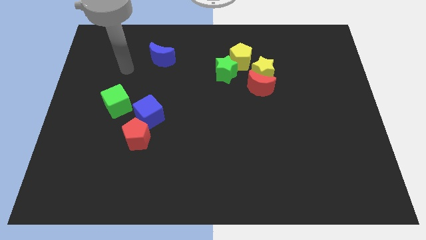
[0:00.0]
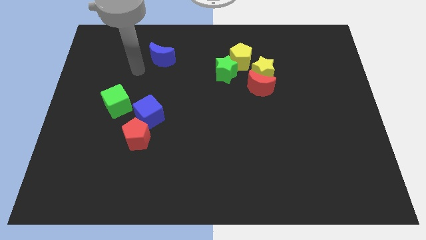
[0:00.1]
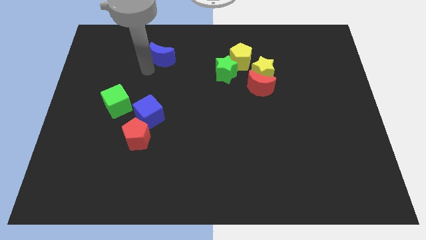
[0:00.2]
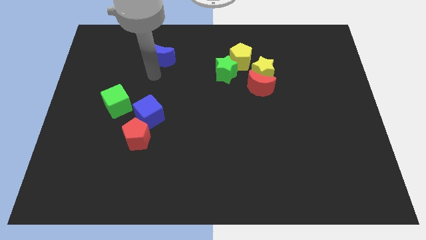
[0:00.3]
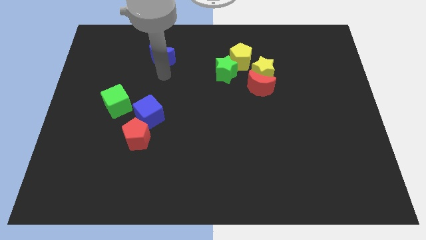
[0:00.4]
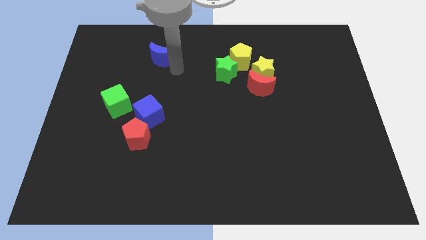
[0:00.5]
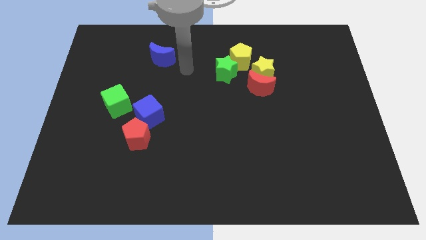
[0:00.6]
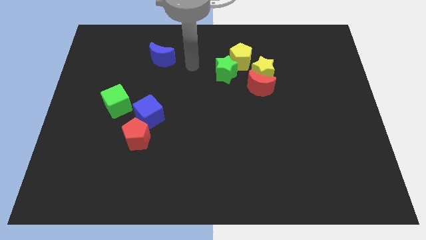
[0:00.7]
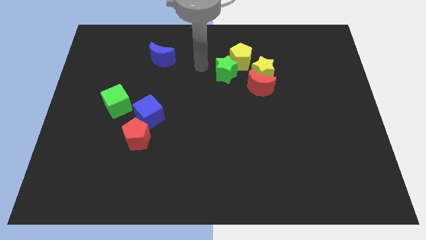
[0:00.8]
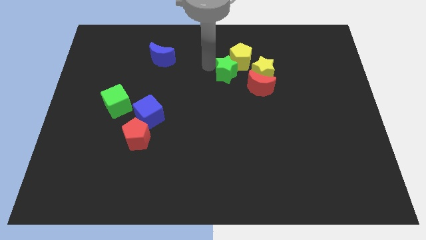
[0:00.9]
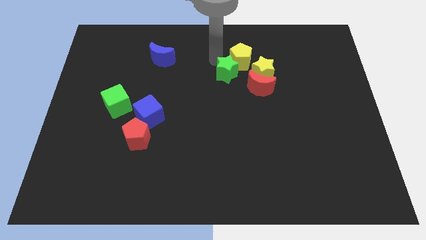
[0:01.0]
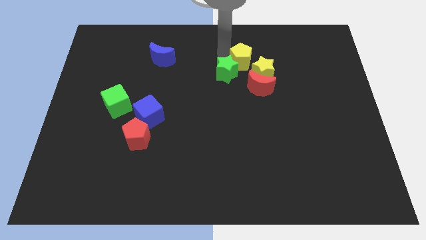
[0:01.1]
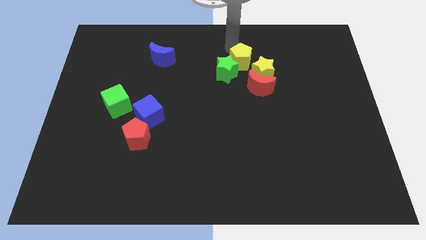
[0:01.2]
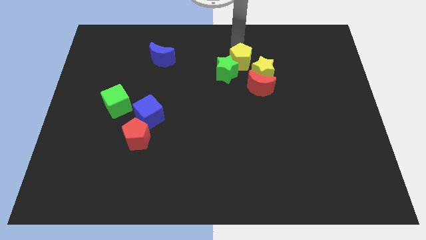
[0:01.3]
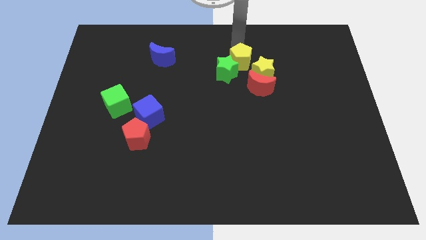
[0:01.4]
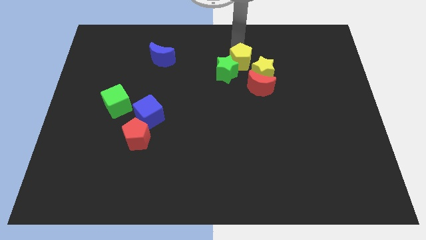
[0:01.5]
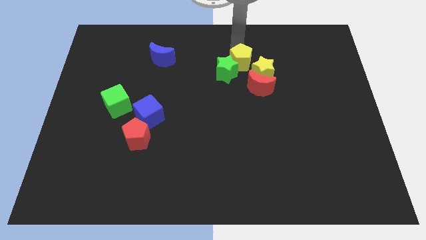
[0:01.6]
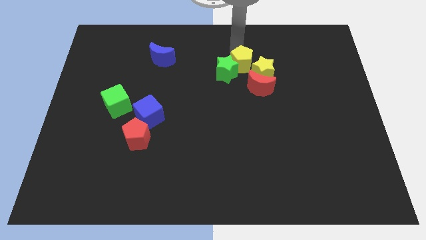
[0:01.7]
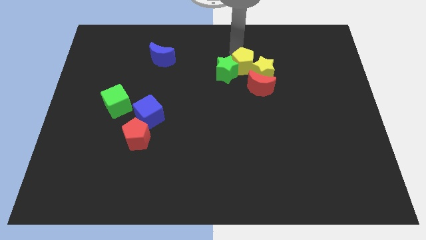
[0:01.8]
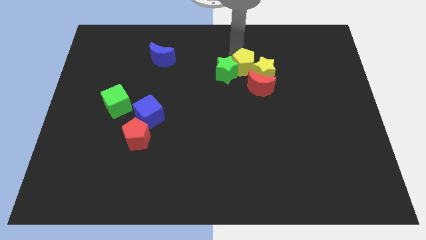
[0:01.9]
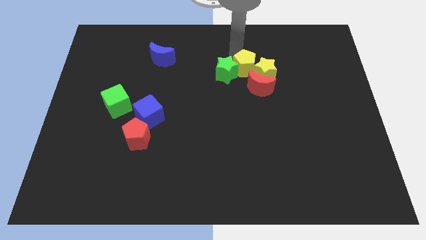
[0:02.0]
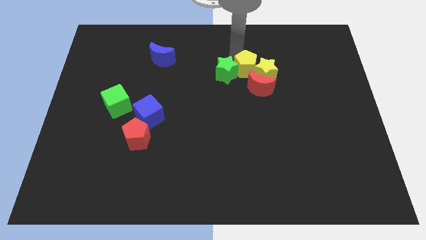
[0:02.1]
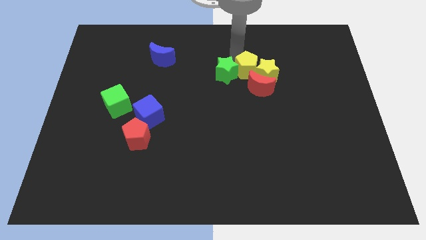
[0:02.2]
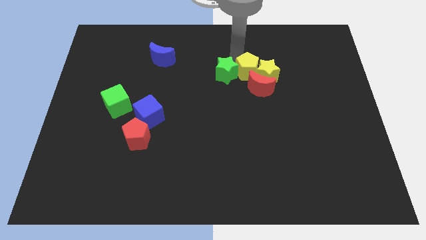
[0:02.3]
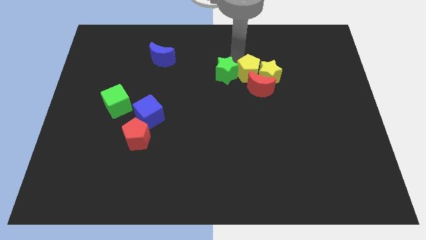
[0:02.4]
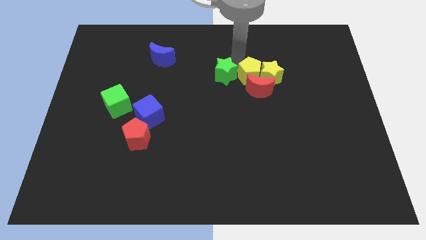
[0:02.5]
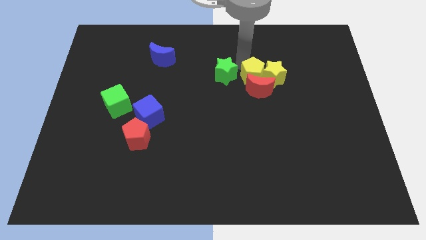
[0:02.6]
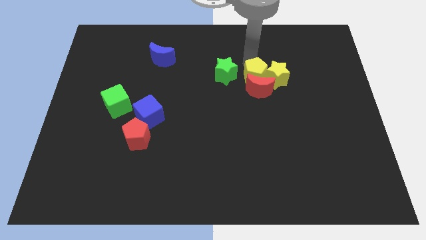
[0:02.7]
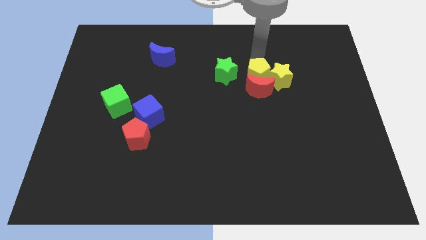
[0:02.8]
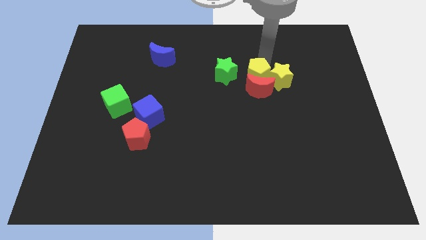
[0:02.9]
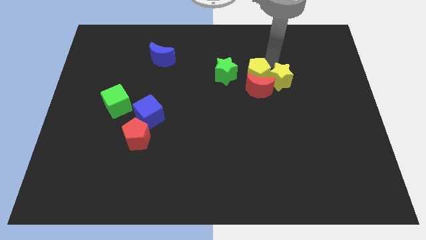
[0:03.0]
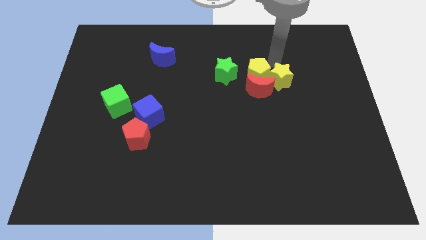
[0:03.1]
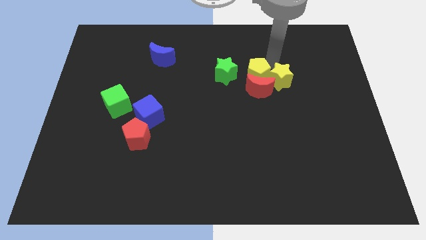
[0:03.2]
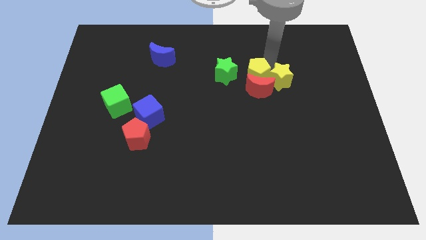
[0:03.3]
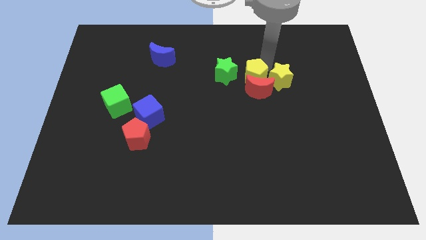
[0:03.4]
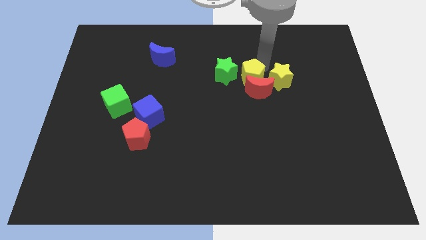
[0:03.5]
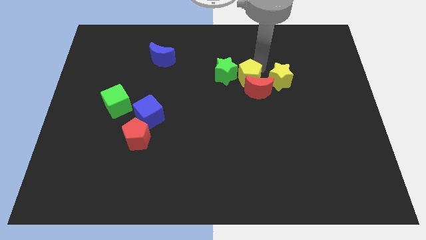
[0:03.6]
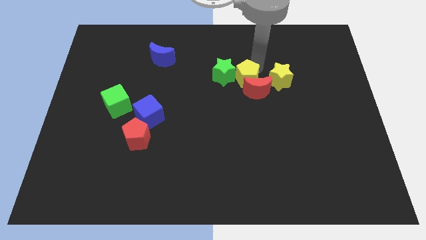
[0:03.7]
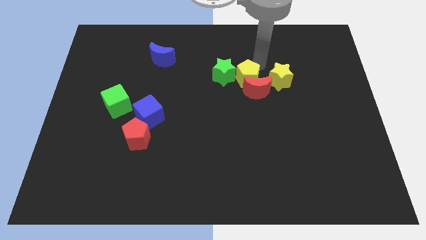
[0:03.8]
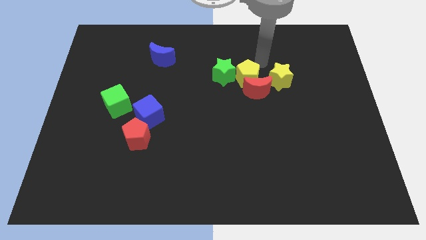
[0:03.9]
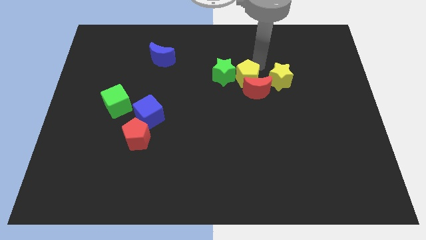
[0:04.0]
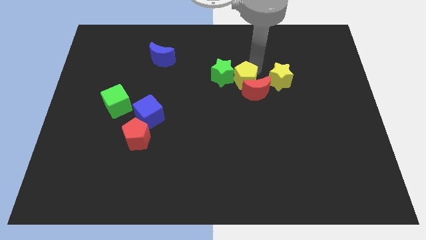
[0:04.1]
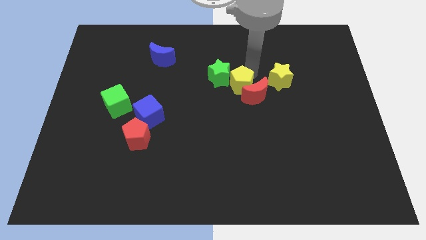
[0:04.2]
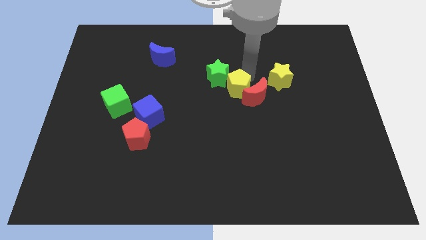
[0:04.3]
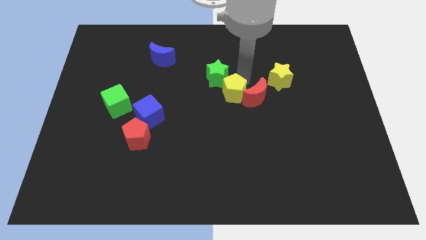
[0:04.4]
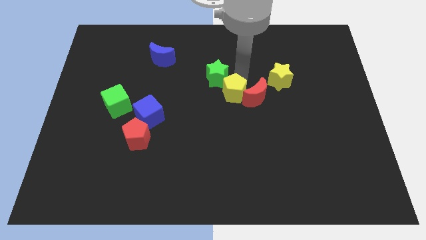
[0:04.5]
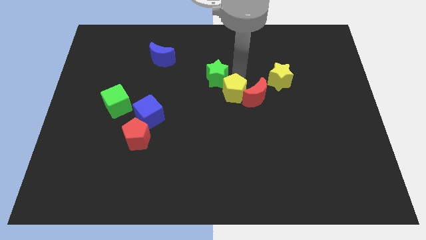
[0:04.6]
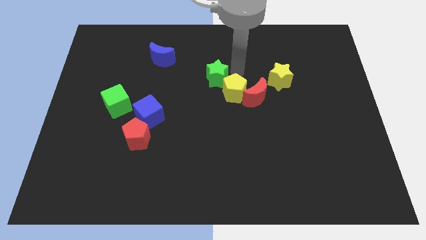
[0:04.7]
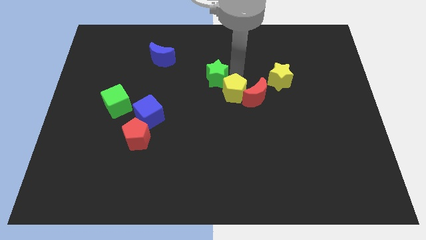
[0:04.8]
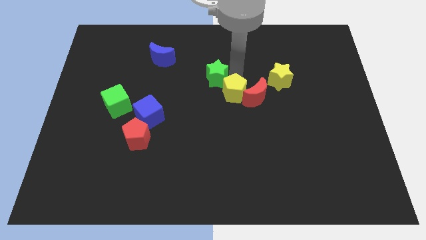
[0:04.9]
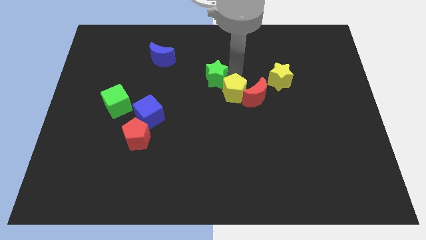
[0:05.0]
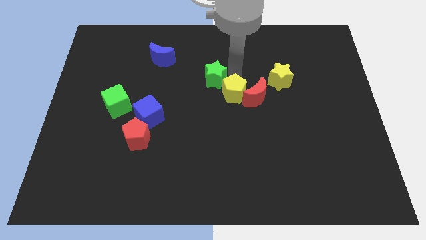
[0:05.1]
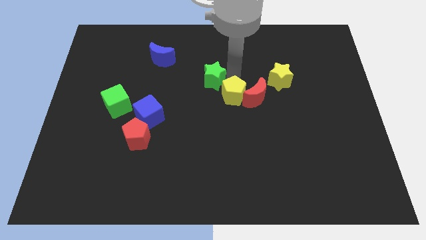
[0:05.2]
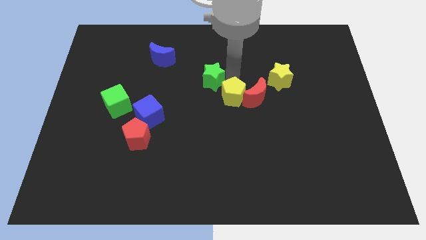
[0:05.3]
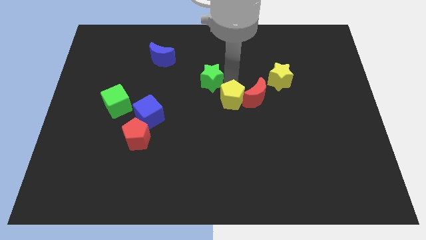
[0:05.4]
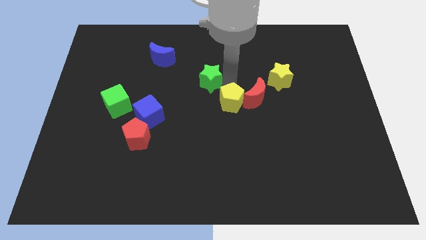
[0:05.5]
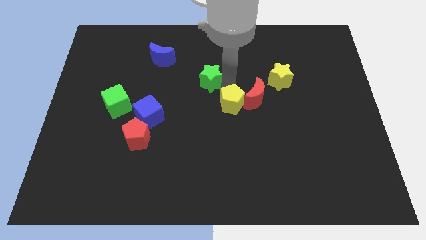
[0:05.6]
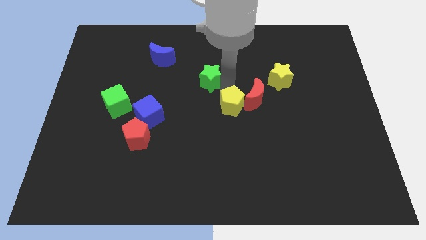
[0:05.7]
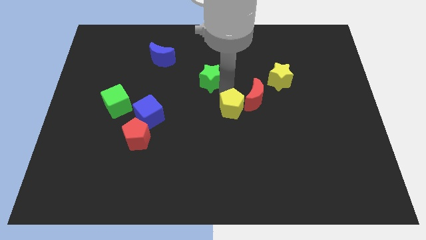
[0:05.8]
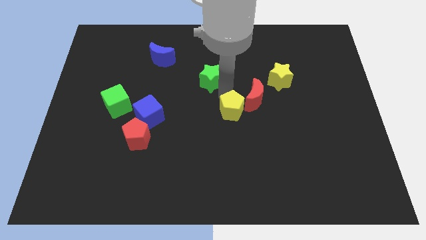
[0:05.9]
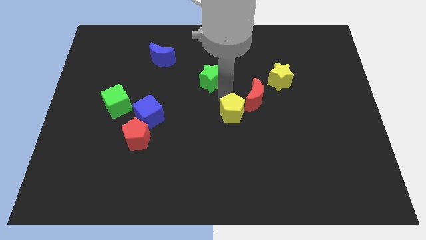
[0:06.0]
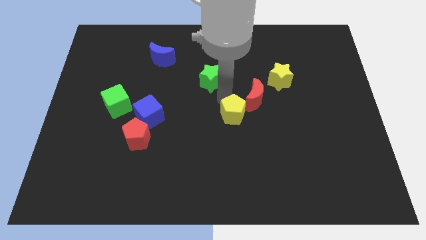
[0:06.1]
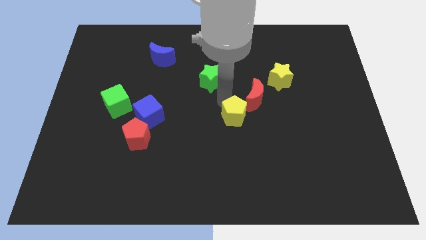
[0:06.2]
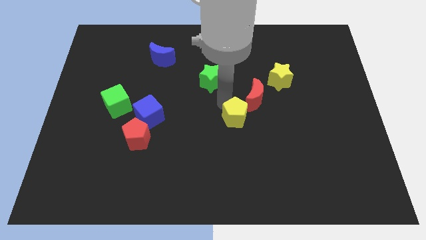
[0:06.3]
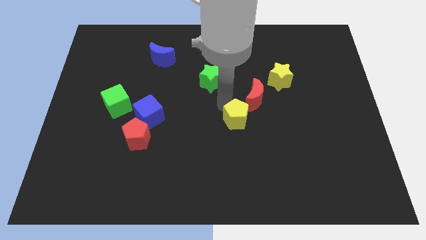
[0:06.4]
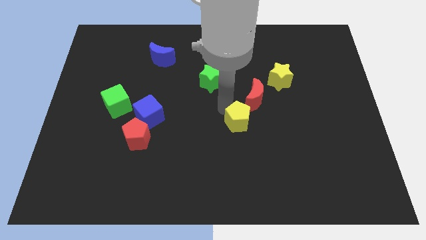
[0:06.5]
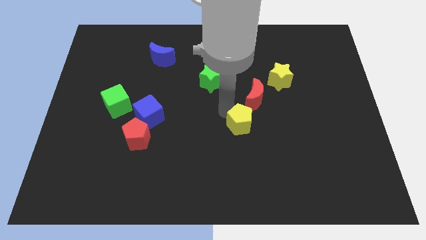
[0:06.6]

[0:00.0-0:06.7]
push the yellow pentagon downwards

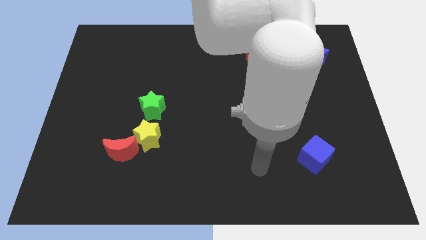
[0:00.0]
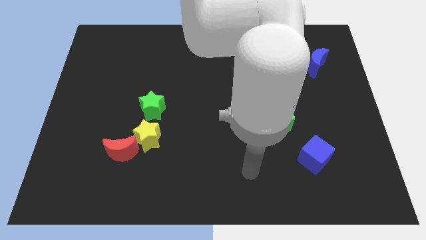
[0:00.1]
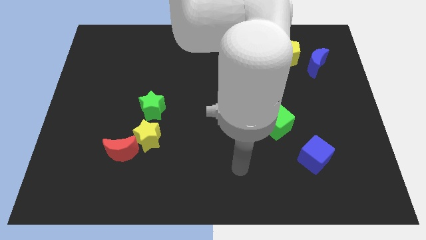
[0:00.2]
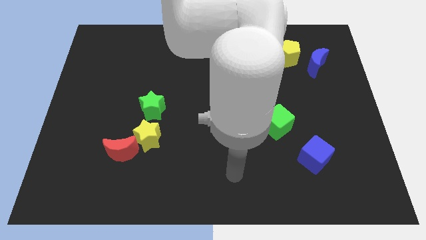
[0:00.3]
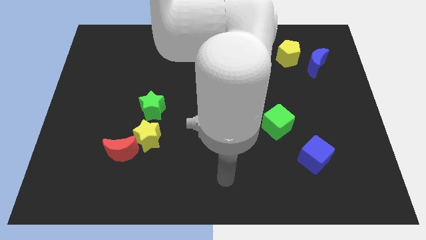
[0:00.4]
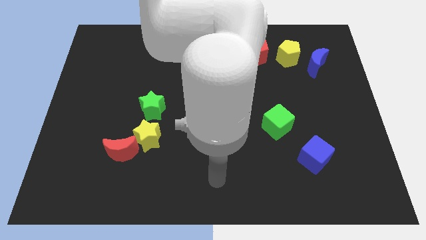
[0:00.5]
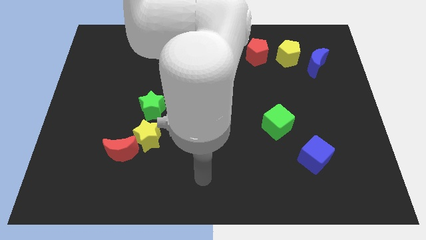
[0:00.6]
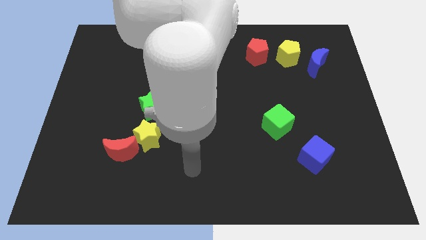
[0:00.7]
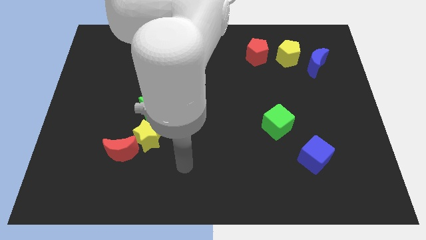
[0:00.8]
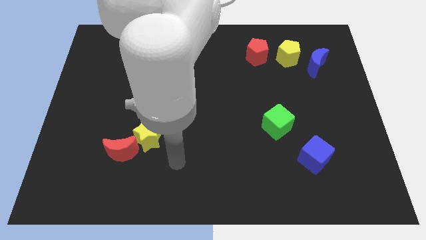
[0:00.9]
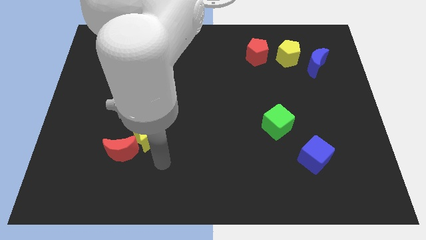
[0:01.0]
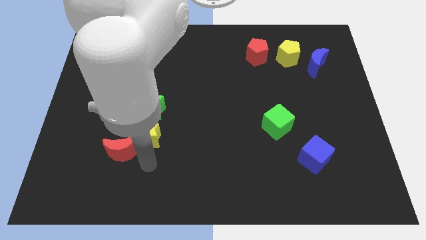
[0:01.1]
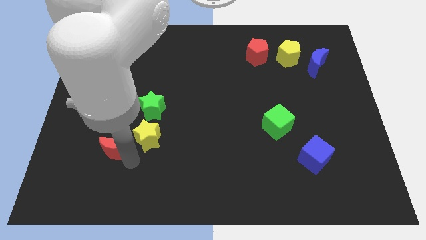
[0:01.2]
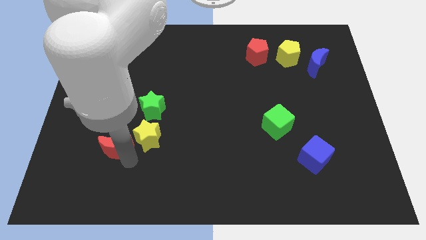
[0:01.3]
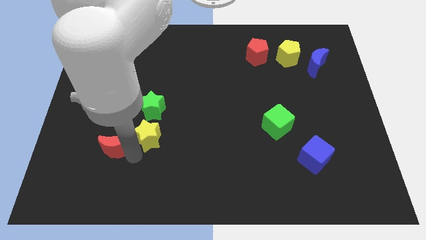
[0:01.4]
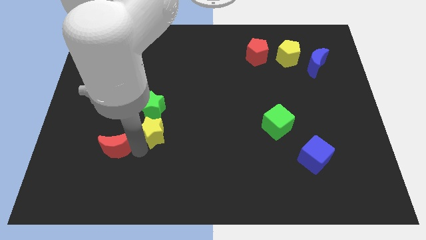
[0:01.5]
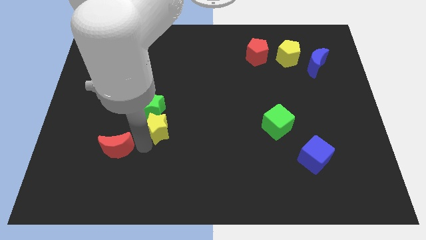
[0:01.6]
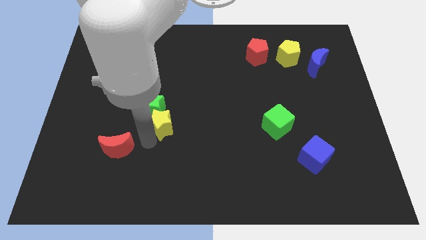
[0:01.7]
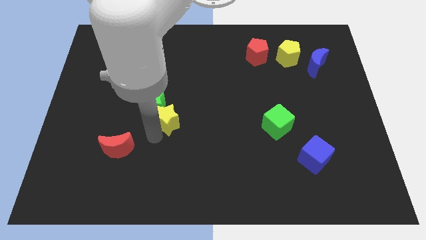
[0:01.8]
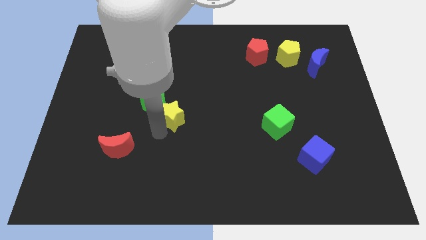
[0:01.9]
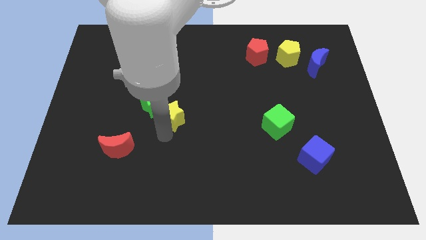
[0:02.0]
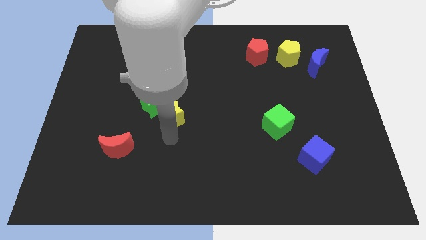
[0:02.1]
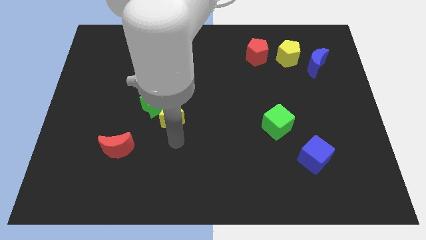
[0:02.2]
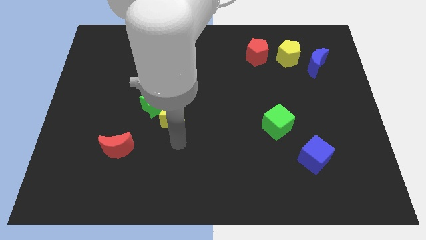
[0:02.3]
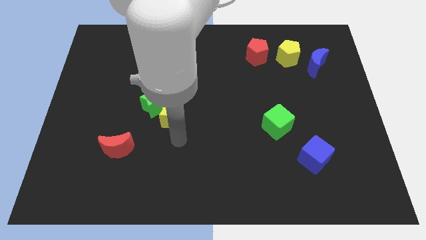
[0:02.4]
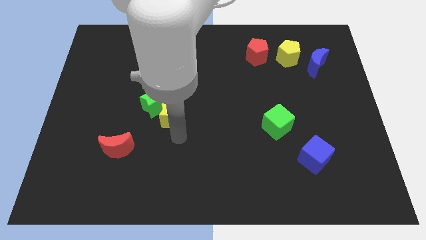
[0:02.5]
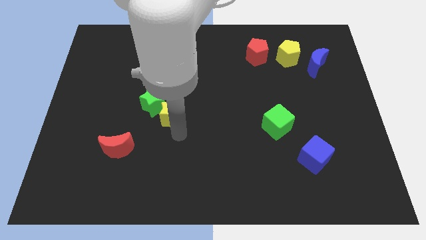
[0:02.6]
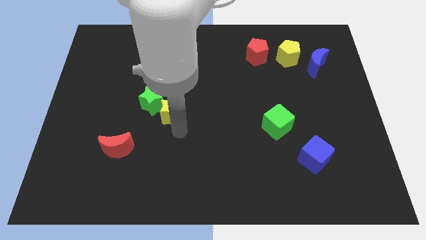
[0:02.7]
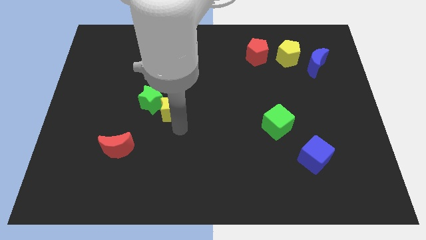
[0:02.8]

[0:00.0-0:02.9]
push the yellow star a bit upwards
